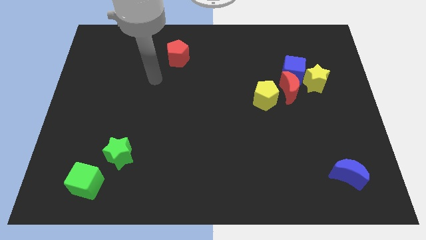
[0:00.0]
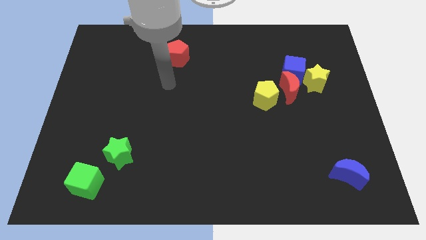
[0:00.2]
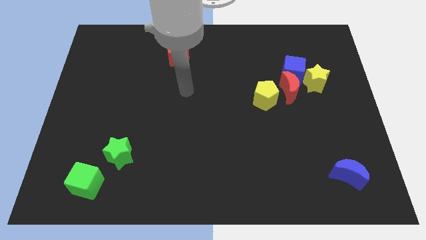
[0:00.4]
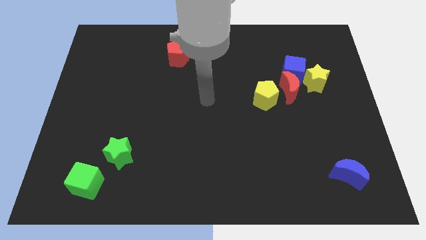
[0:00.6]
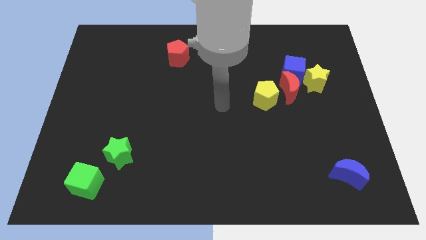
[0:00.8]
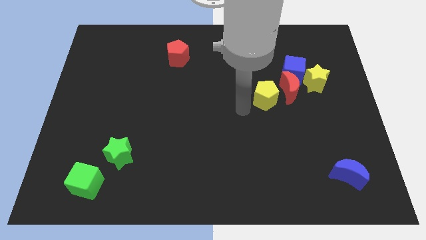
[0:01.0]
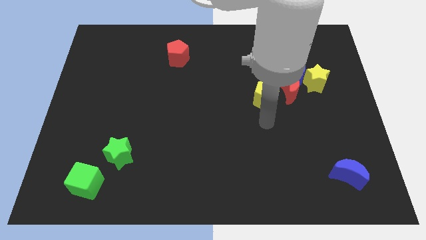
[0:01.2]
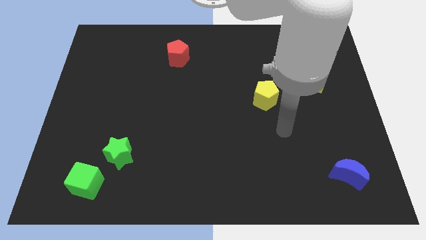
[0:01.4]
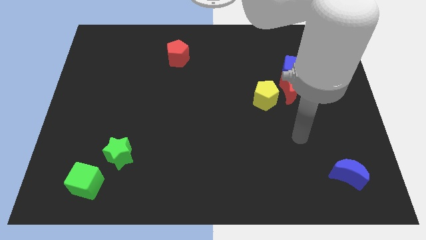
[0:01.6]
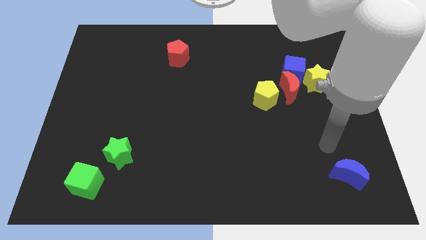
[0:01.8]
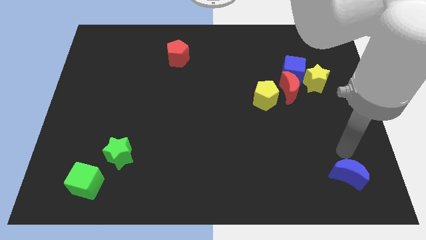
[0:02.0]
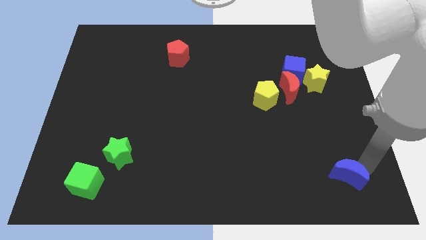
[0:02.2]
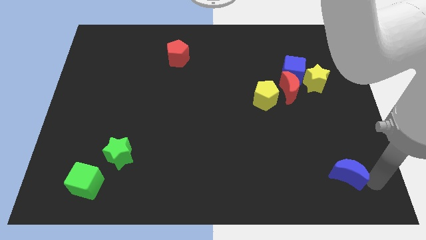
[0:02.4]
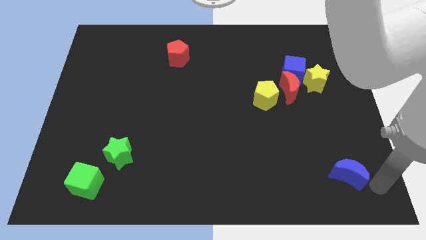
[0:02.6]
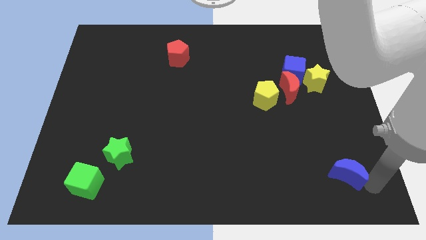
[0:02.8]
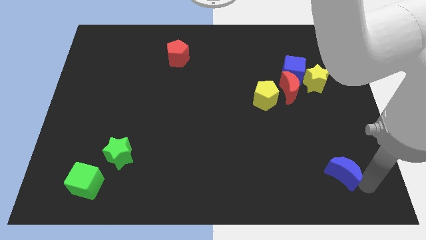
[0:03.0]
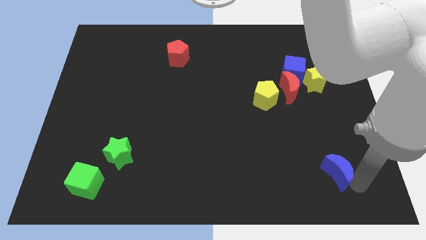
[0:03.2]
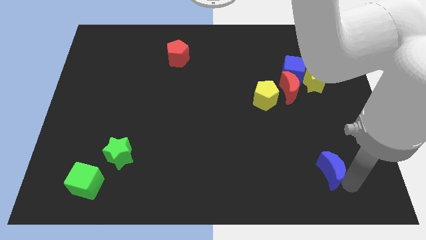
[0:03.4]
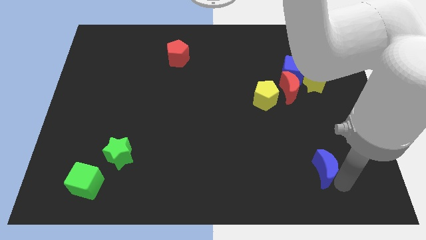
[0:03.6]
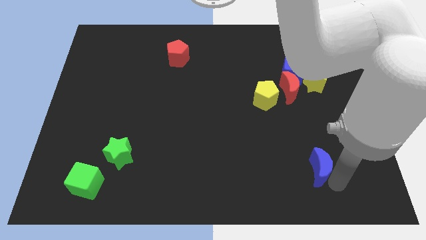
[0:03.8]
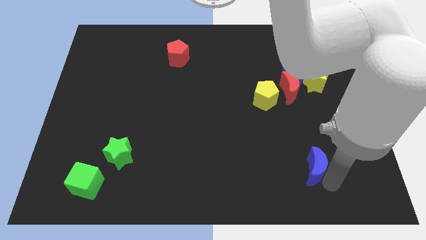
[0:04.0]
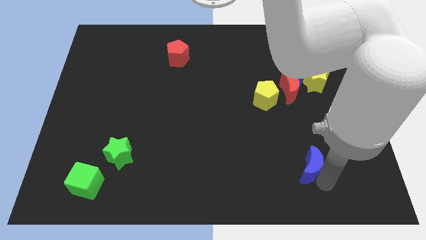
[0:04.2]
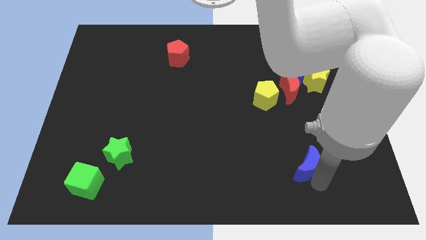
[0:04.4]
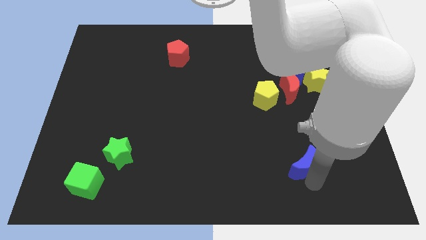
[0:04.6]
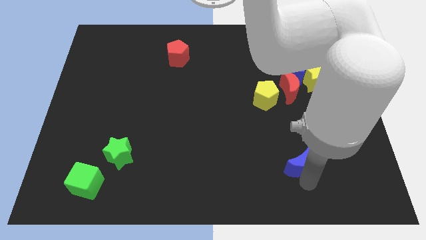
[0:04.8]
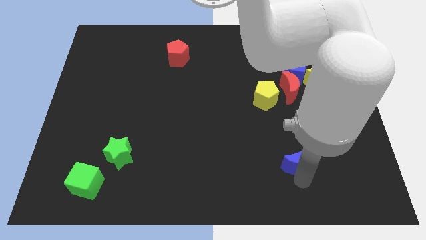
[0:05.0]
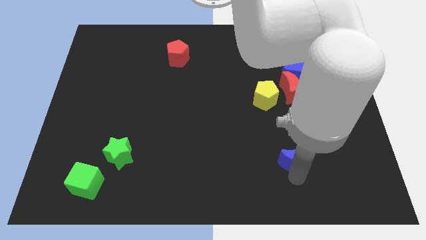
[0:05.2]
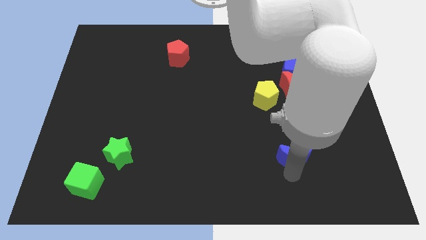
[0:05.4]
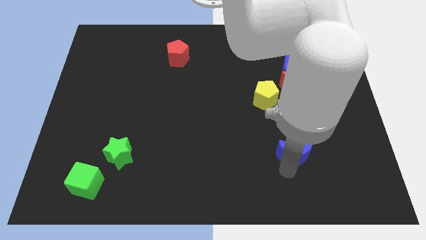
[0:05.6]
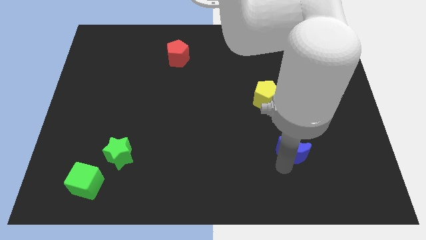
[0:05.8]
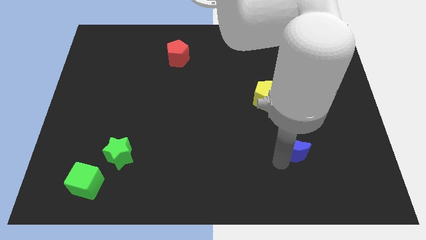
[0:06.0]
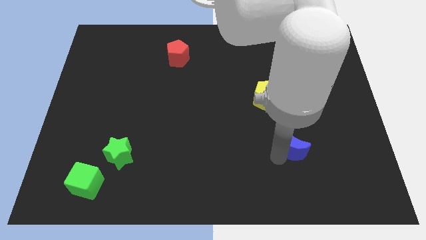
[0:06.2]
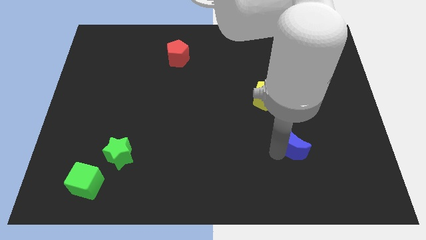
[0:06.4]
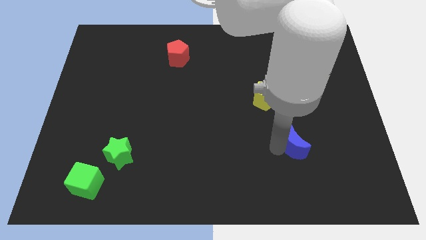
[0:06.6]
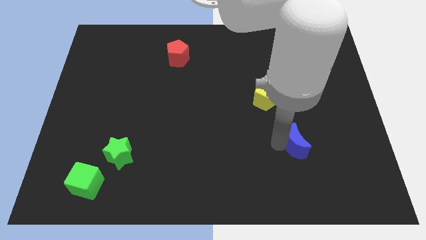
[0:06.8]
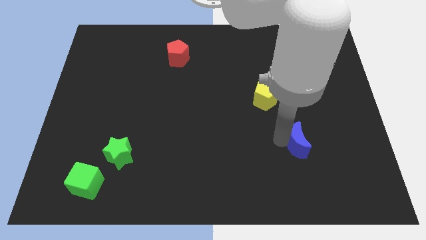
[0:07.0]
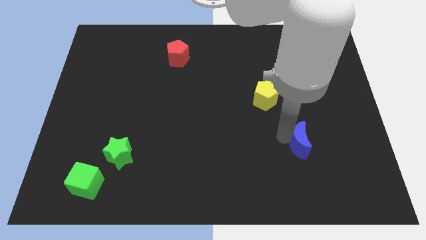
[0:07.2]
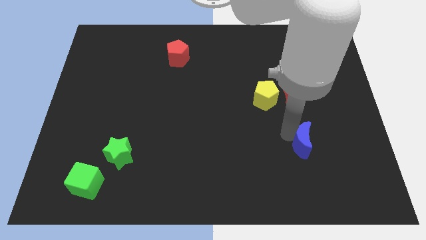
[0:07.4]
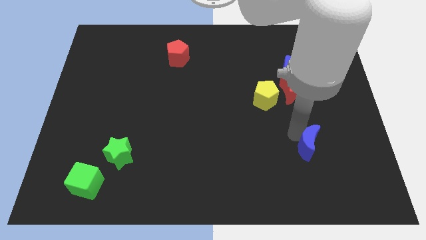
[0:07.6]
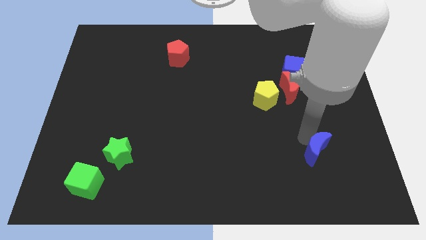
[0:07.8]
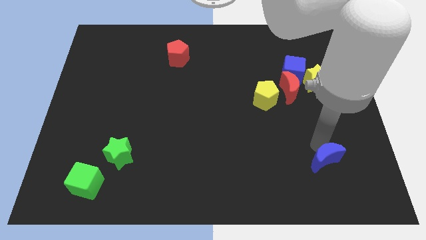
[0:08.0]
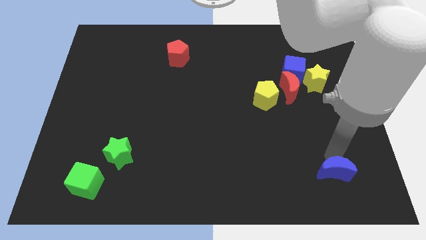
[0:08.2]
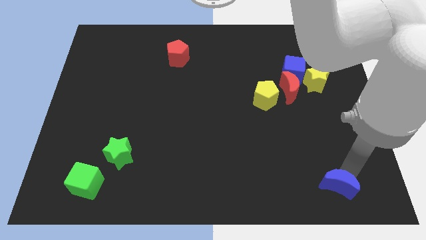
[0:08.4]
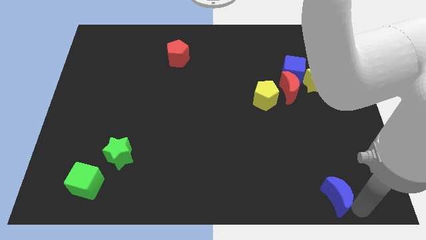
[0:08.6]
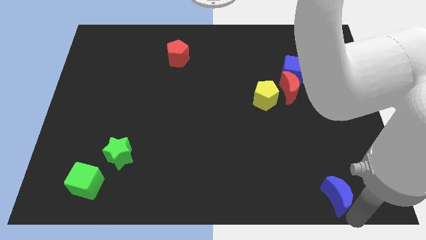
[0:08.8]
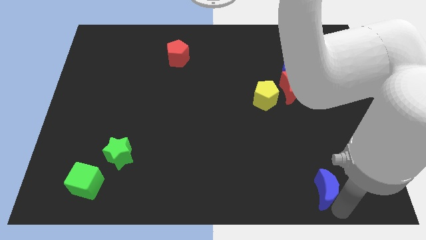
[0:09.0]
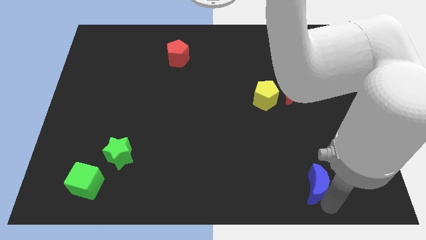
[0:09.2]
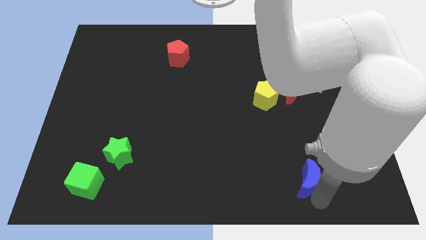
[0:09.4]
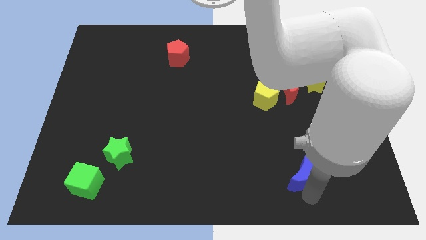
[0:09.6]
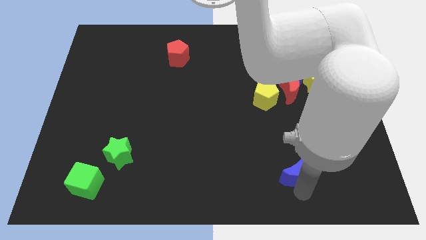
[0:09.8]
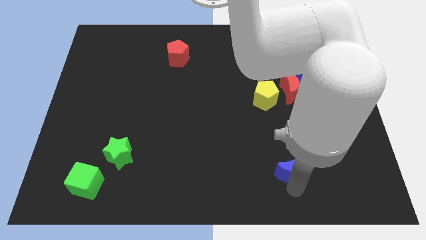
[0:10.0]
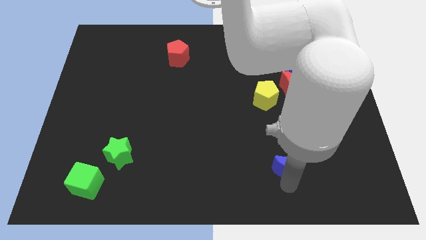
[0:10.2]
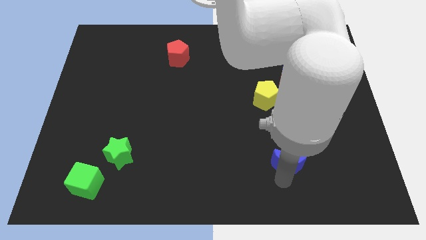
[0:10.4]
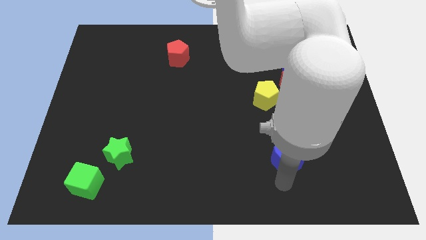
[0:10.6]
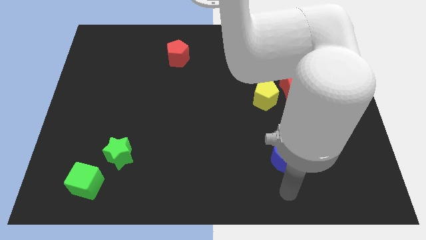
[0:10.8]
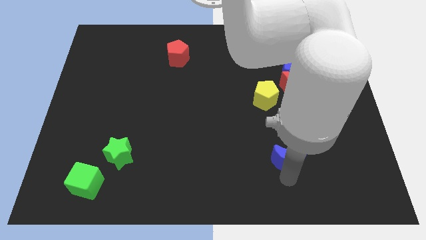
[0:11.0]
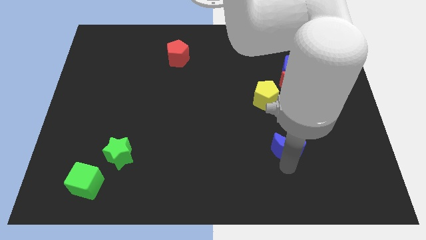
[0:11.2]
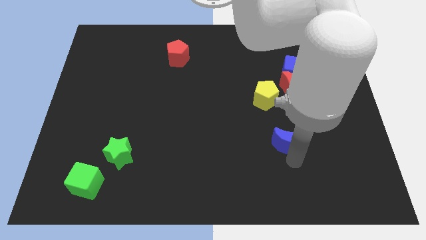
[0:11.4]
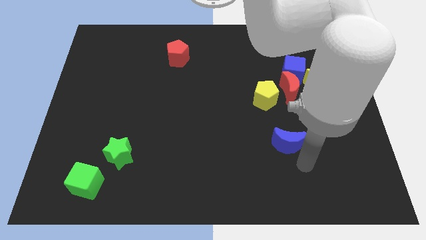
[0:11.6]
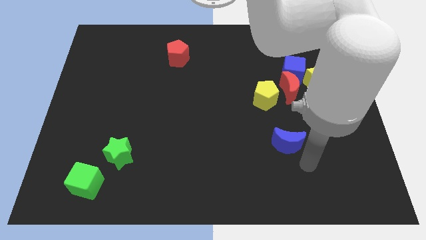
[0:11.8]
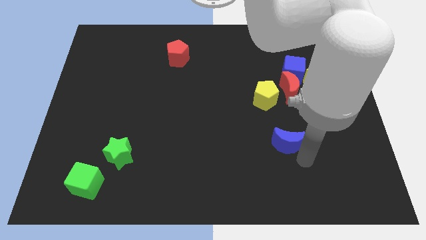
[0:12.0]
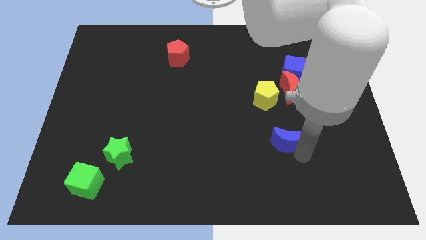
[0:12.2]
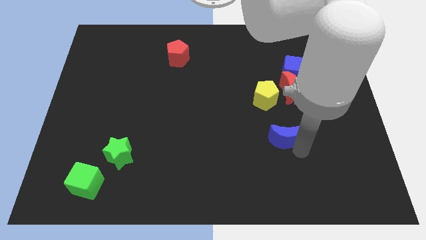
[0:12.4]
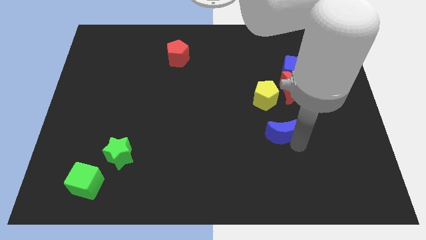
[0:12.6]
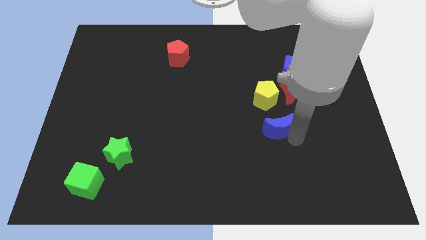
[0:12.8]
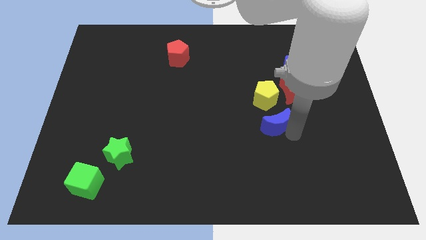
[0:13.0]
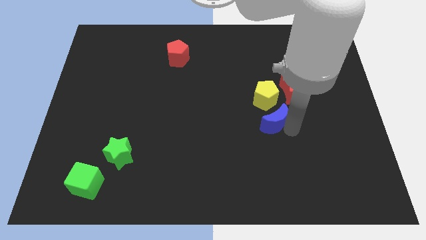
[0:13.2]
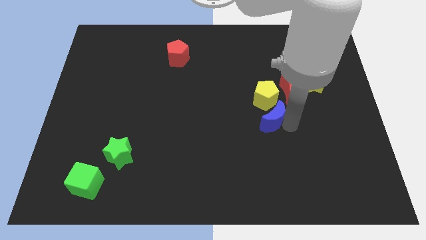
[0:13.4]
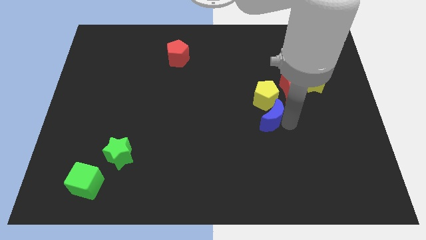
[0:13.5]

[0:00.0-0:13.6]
move the blue moon up and to the left diagonally

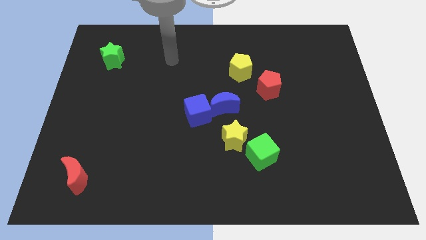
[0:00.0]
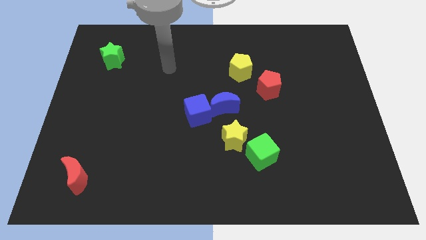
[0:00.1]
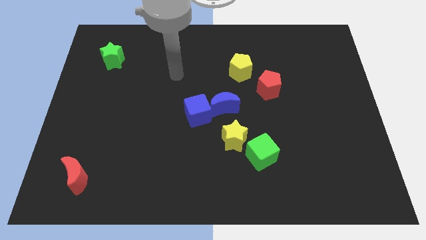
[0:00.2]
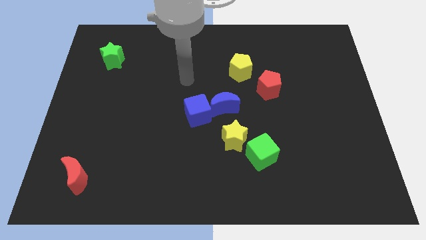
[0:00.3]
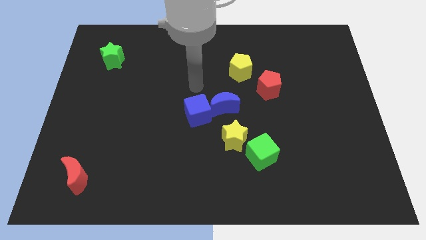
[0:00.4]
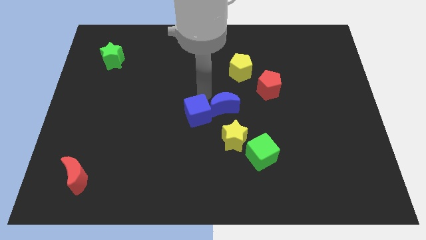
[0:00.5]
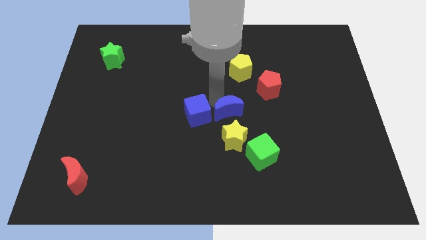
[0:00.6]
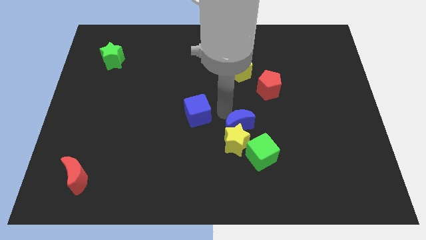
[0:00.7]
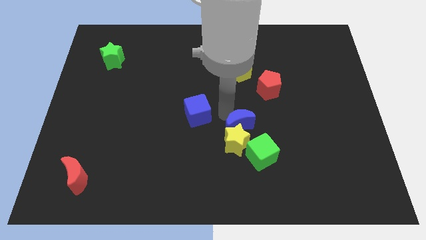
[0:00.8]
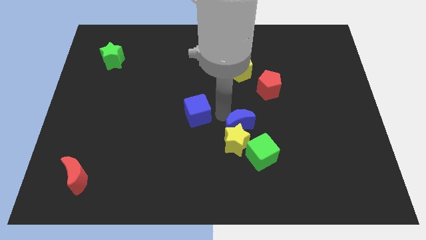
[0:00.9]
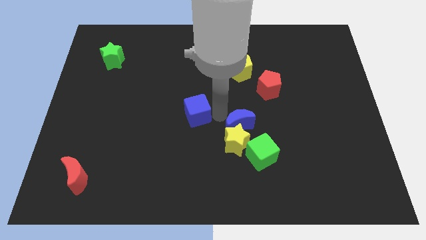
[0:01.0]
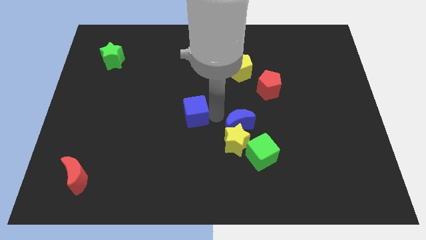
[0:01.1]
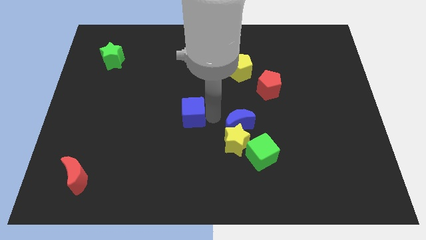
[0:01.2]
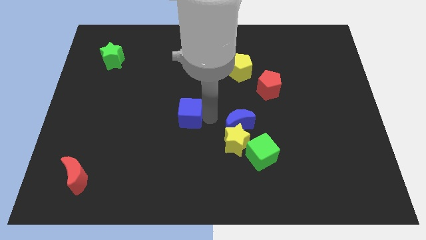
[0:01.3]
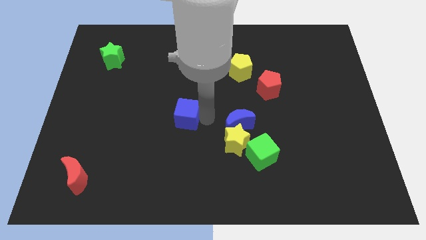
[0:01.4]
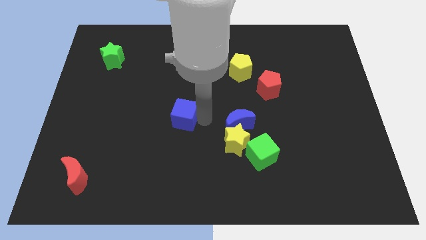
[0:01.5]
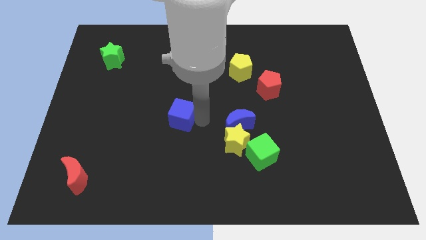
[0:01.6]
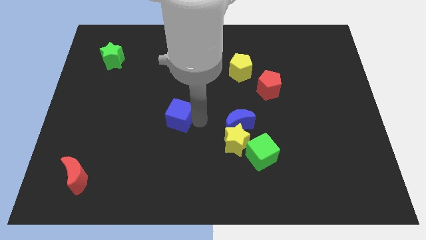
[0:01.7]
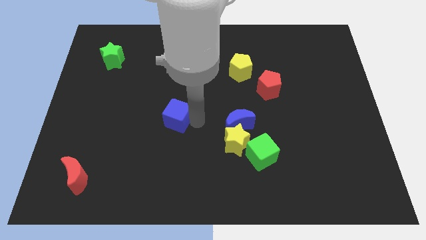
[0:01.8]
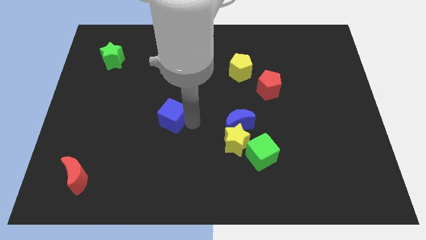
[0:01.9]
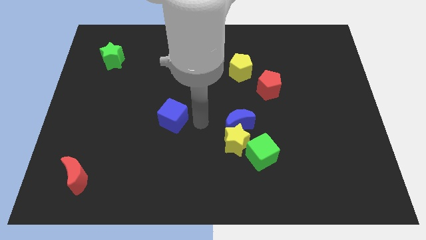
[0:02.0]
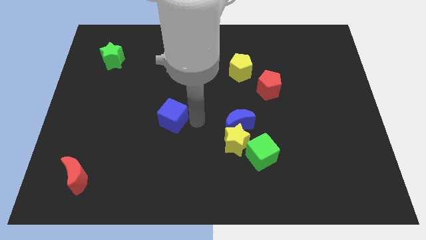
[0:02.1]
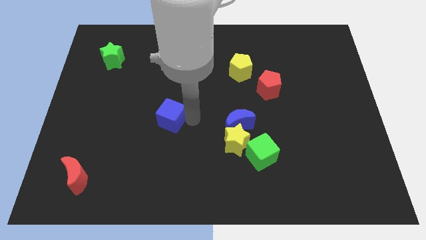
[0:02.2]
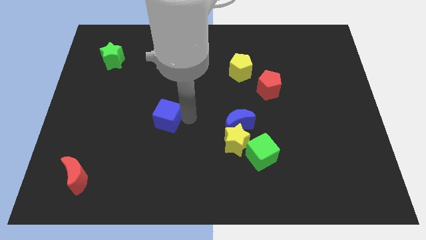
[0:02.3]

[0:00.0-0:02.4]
slide the blue cube to the left a little
